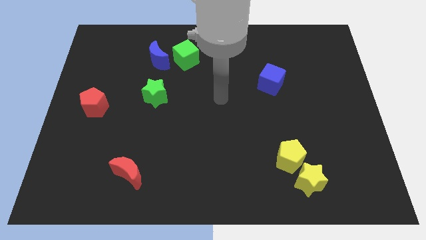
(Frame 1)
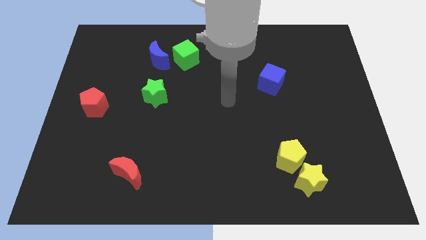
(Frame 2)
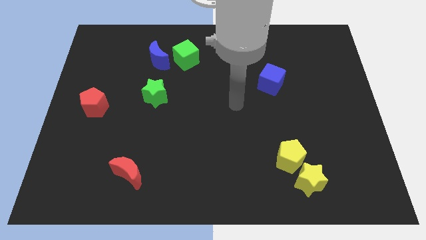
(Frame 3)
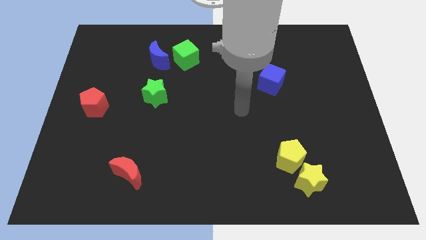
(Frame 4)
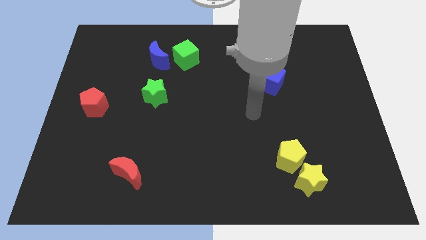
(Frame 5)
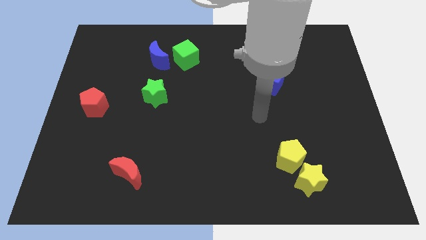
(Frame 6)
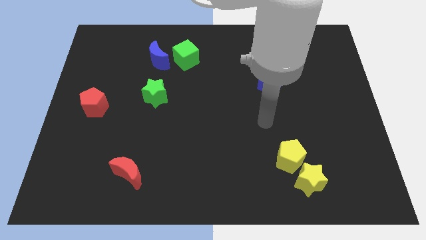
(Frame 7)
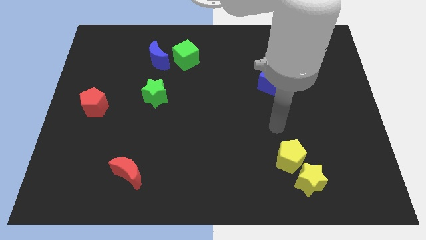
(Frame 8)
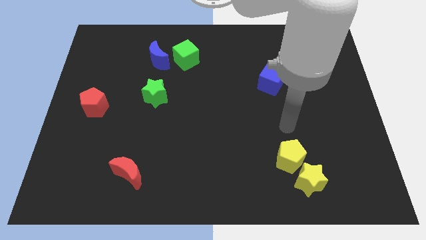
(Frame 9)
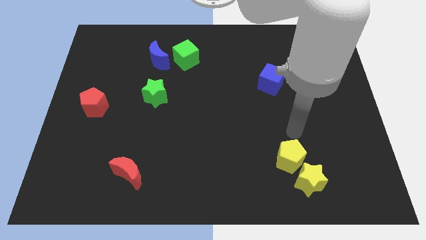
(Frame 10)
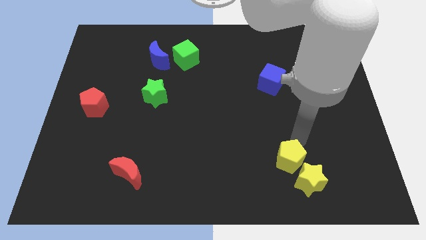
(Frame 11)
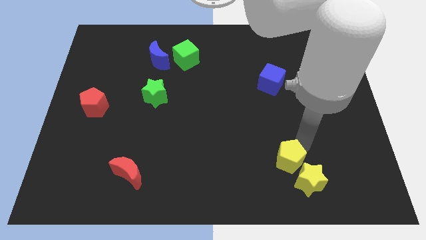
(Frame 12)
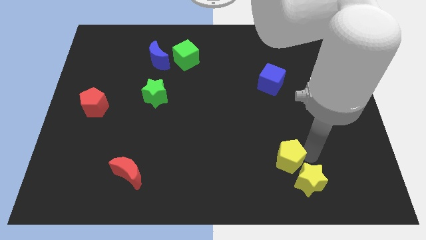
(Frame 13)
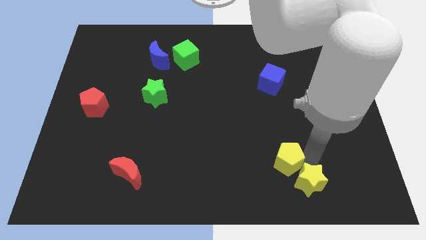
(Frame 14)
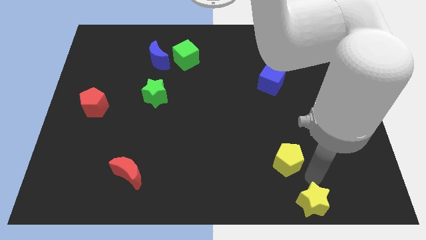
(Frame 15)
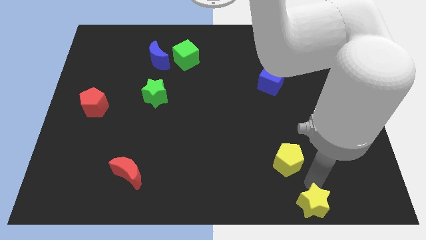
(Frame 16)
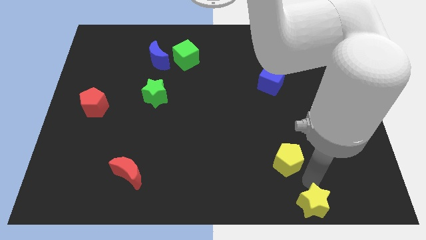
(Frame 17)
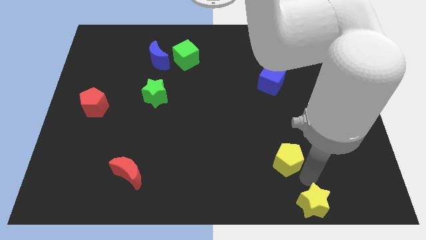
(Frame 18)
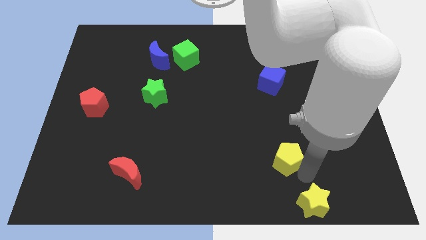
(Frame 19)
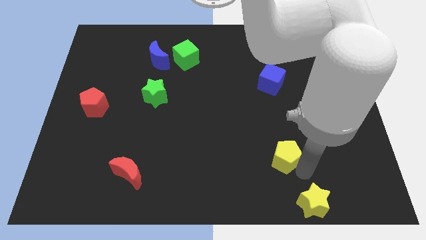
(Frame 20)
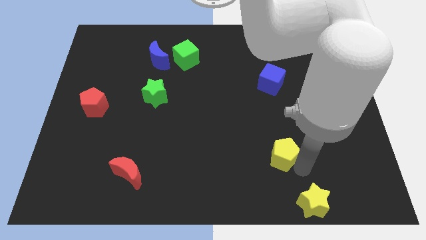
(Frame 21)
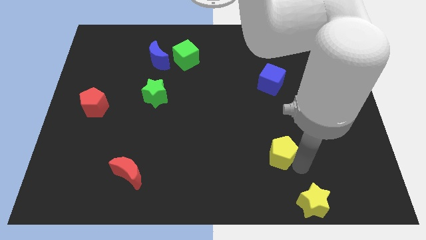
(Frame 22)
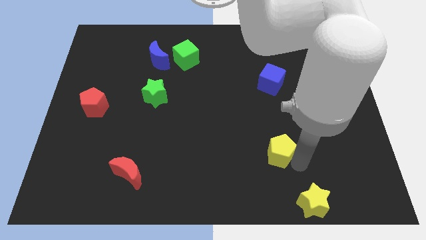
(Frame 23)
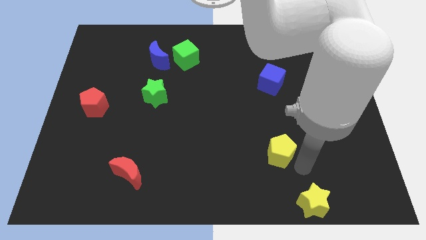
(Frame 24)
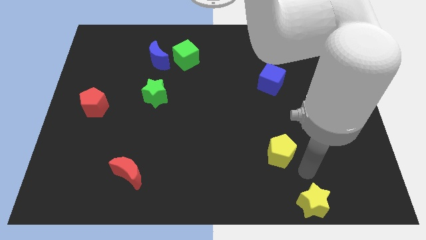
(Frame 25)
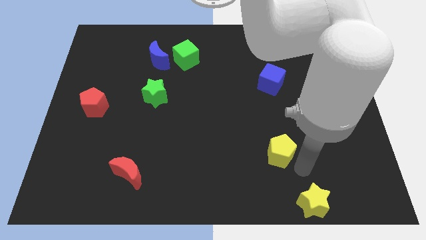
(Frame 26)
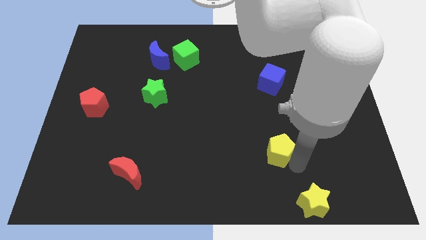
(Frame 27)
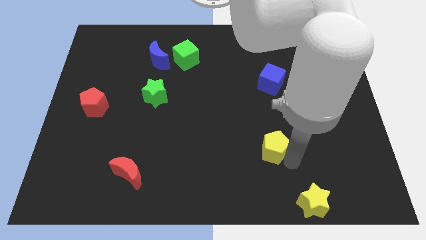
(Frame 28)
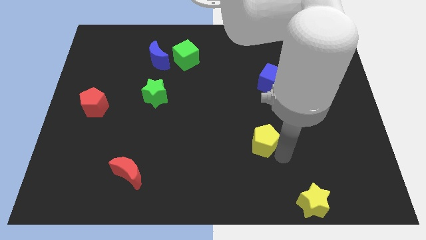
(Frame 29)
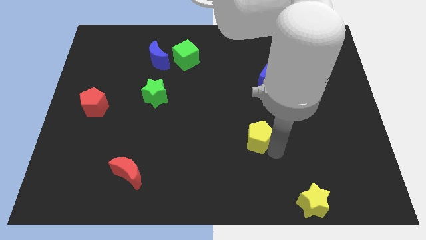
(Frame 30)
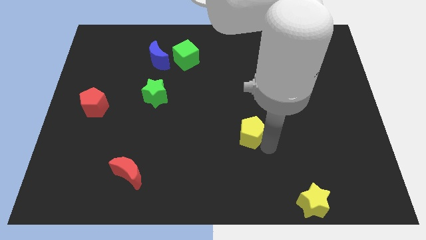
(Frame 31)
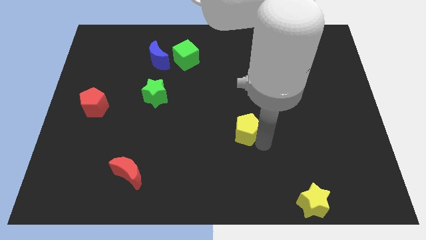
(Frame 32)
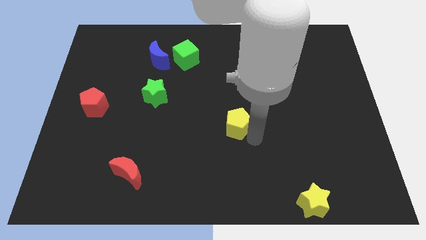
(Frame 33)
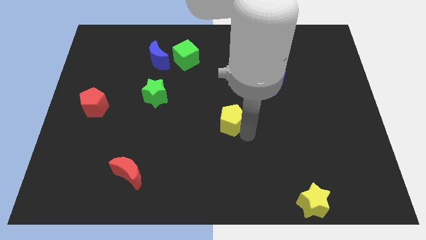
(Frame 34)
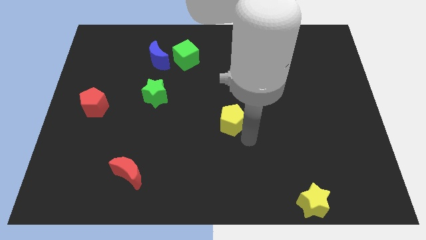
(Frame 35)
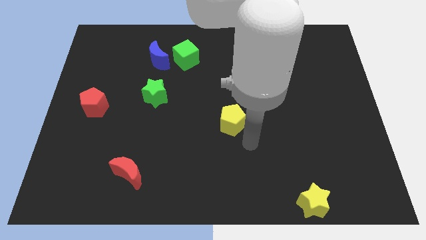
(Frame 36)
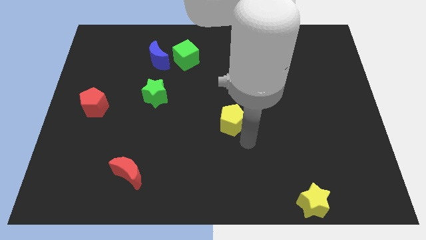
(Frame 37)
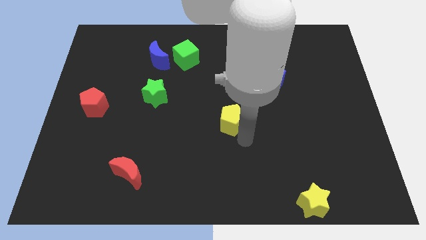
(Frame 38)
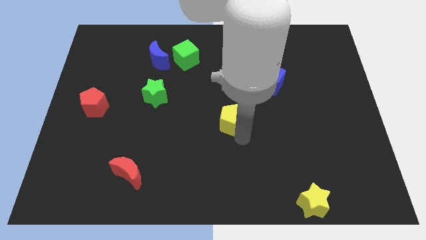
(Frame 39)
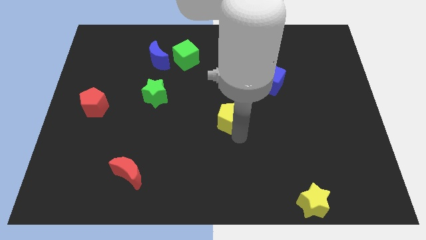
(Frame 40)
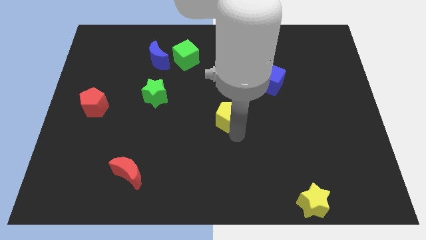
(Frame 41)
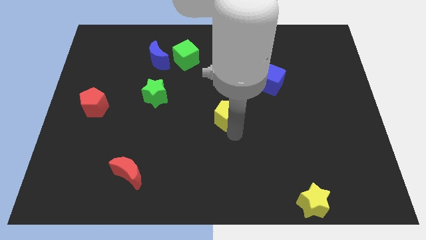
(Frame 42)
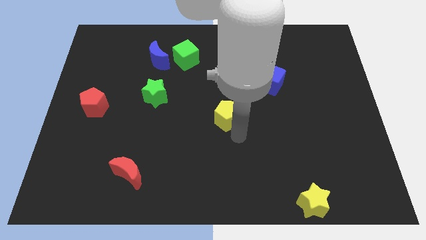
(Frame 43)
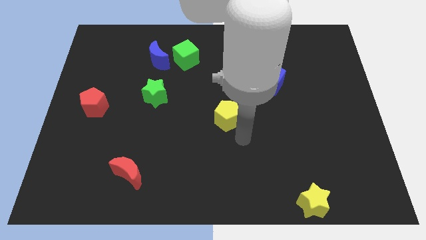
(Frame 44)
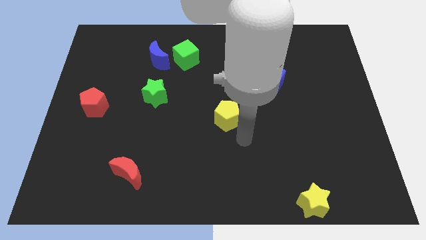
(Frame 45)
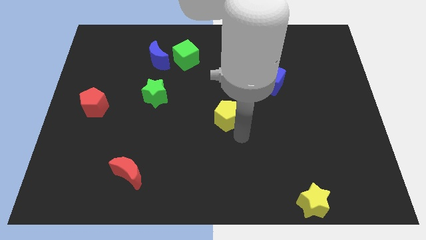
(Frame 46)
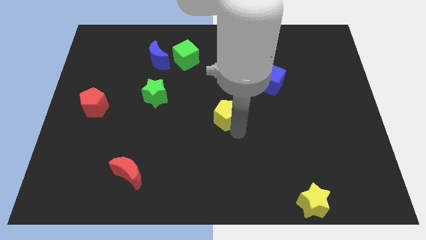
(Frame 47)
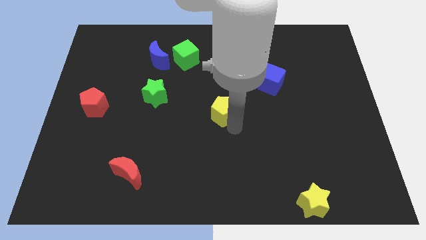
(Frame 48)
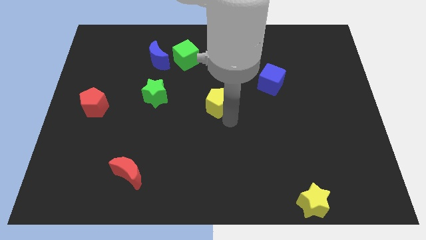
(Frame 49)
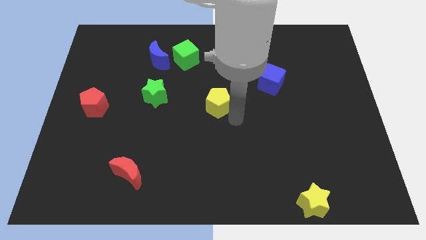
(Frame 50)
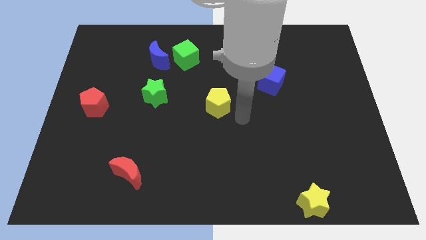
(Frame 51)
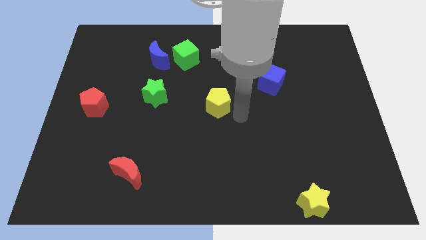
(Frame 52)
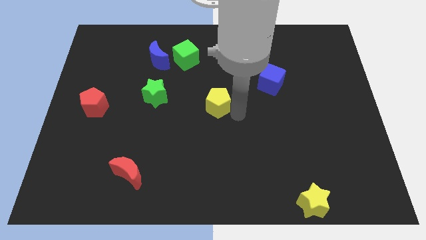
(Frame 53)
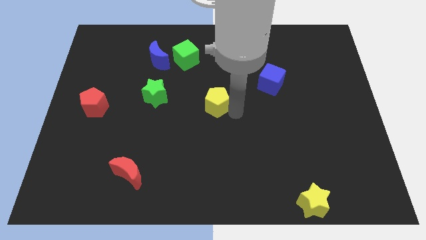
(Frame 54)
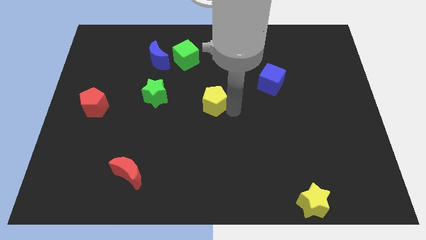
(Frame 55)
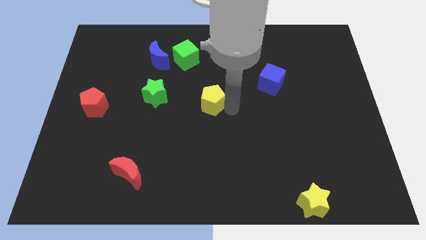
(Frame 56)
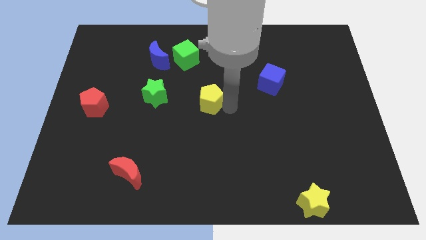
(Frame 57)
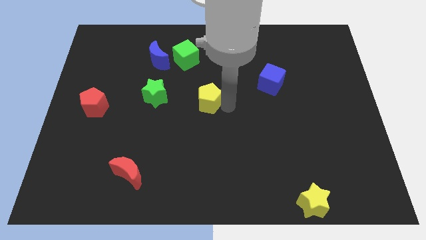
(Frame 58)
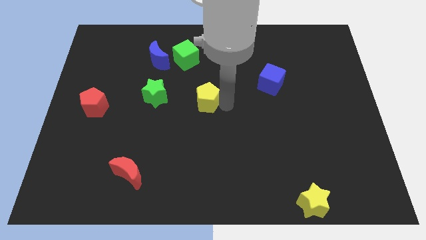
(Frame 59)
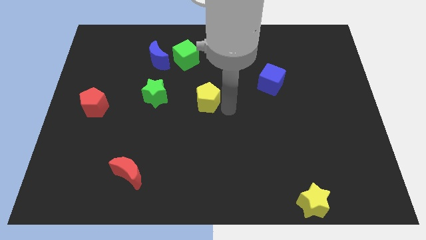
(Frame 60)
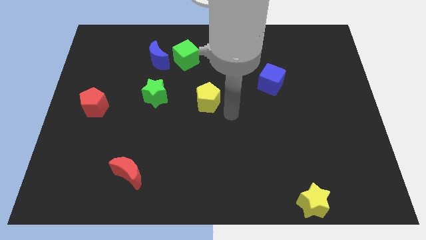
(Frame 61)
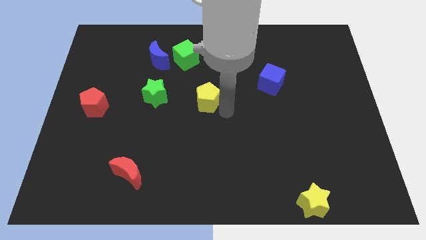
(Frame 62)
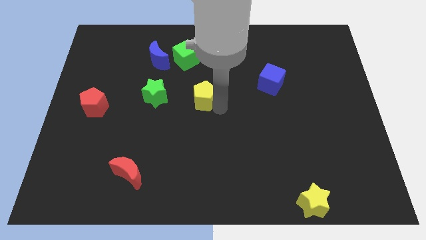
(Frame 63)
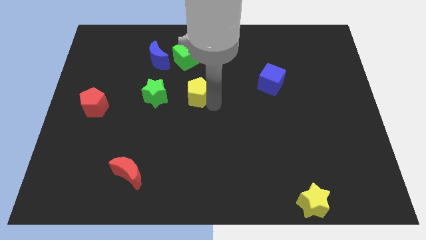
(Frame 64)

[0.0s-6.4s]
slide the yellow pentagon to the bottom of the green cube

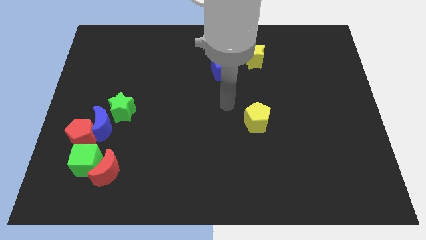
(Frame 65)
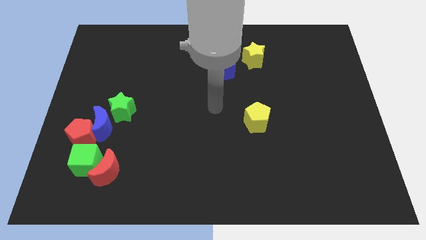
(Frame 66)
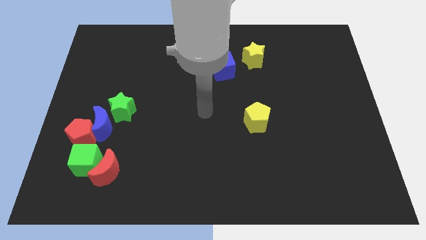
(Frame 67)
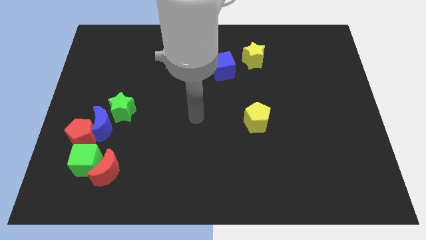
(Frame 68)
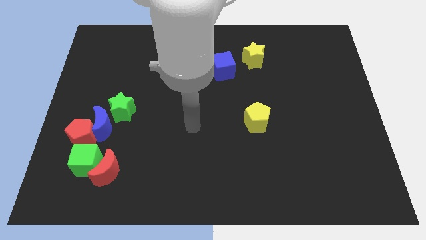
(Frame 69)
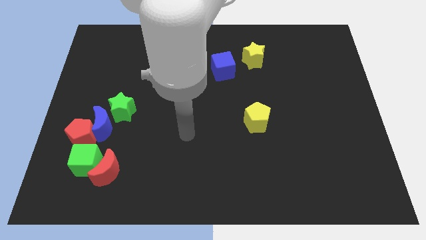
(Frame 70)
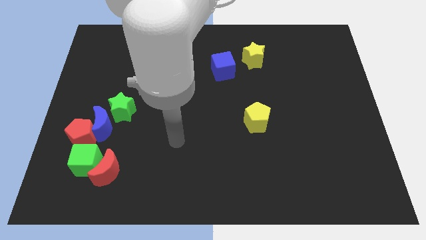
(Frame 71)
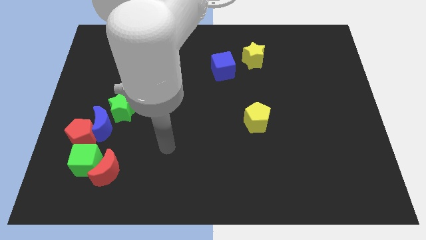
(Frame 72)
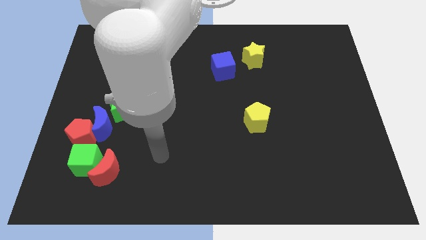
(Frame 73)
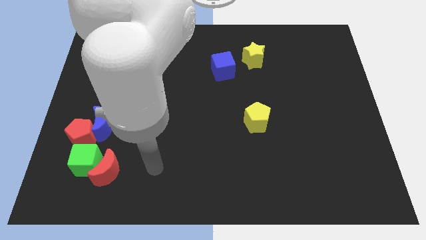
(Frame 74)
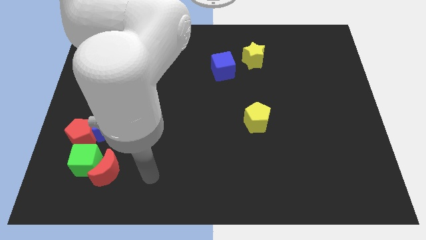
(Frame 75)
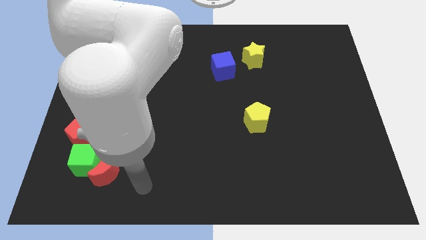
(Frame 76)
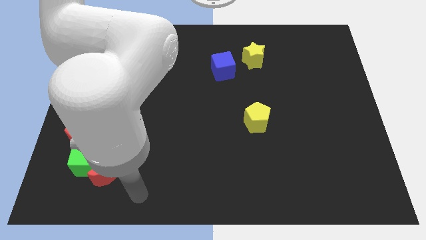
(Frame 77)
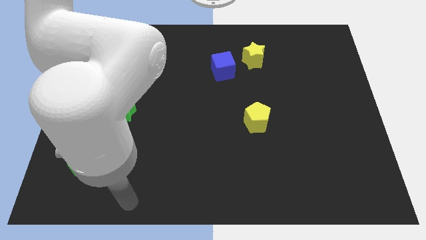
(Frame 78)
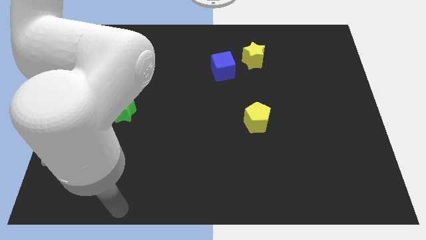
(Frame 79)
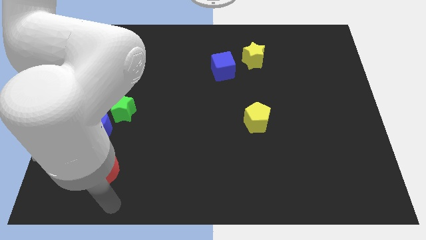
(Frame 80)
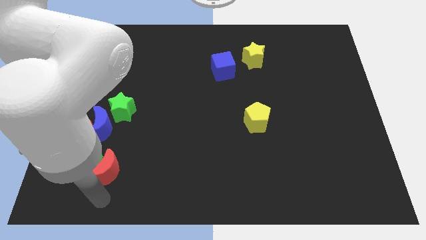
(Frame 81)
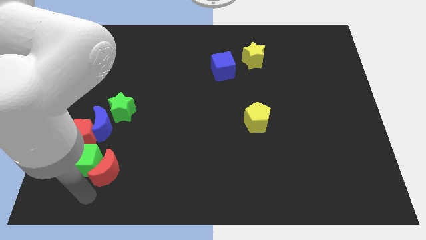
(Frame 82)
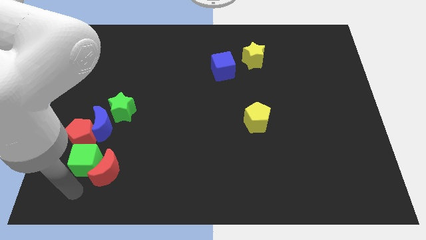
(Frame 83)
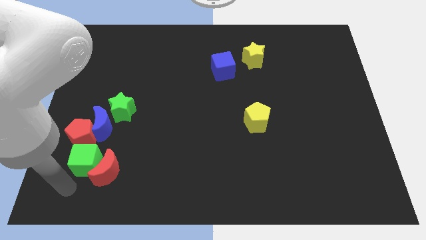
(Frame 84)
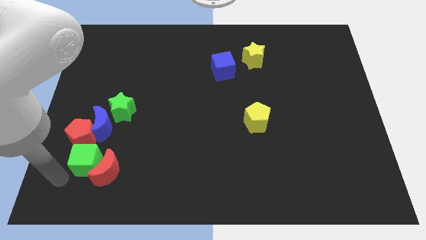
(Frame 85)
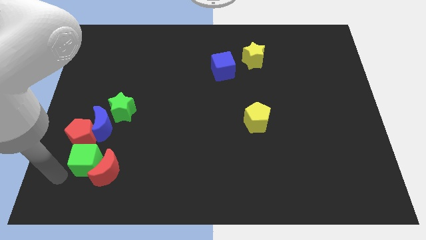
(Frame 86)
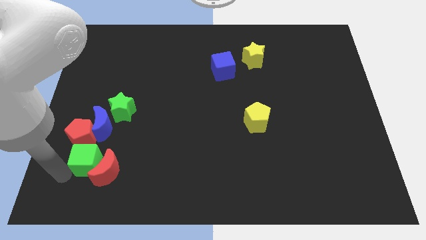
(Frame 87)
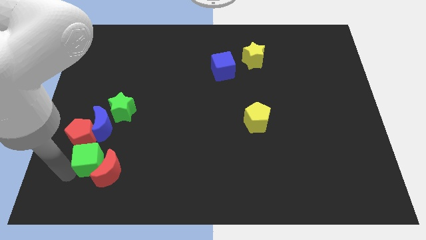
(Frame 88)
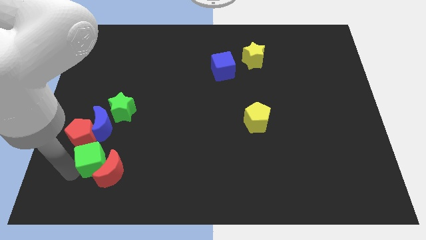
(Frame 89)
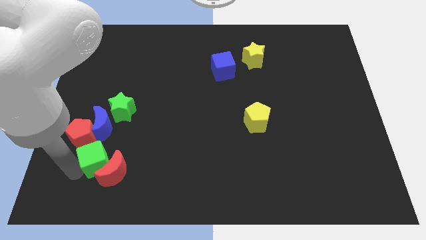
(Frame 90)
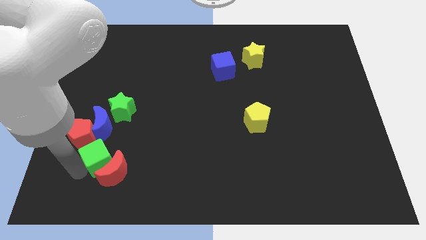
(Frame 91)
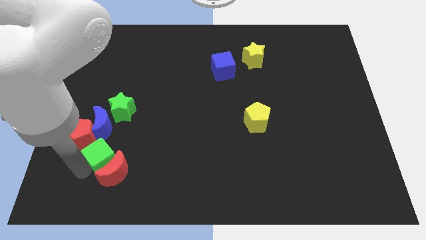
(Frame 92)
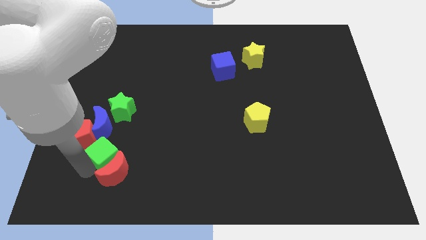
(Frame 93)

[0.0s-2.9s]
push the green cube to the bottom right side of the blue moon
